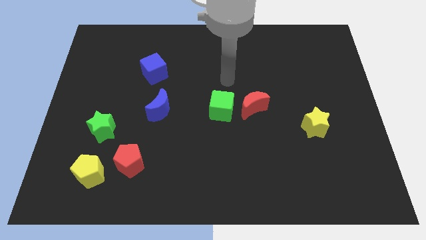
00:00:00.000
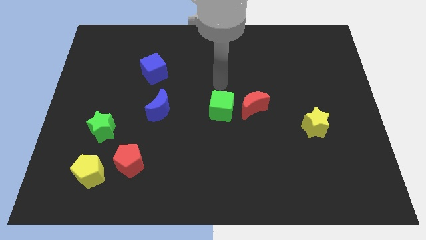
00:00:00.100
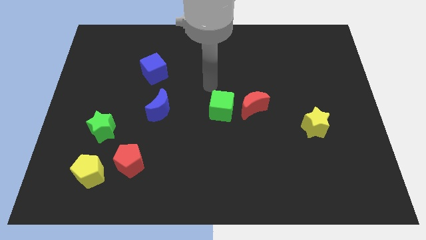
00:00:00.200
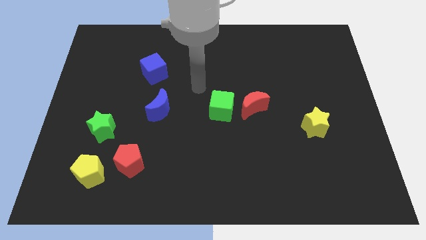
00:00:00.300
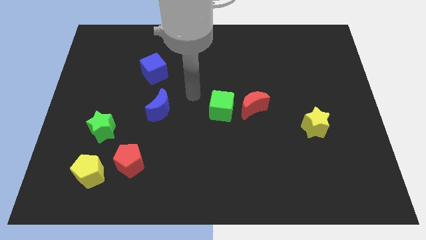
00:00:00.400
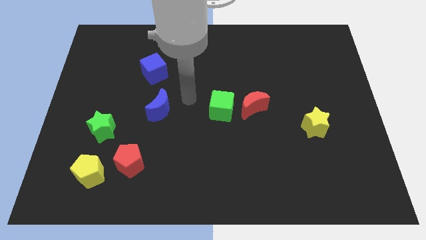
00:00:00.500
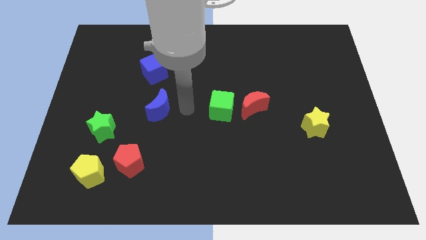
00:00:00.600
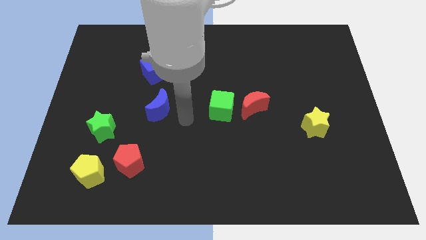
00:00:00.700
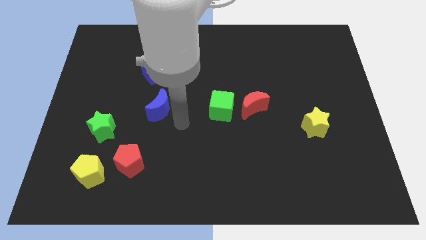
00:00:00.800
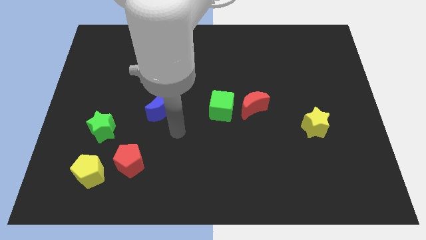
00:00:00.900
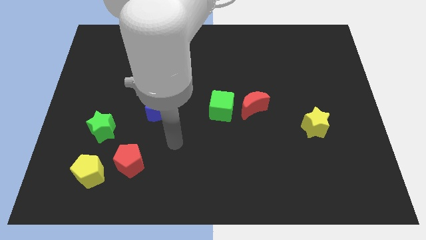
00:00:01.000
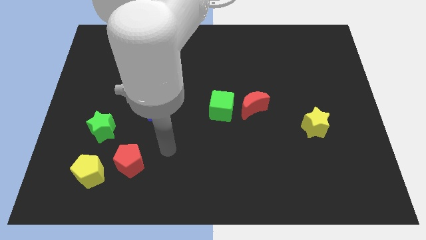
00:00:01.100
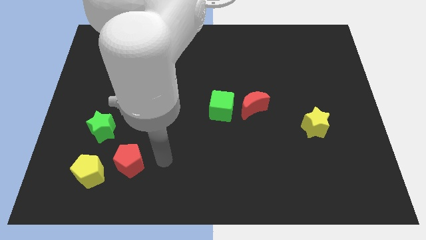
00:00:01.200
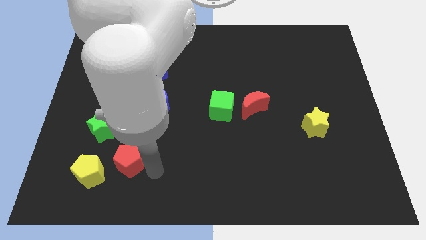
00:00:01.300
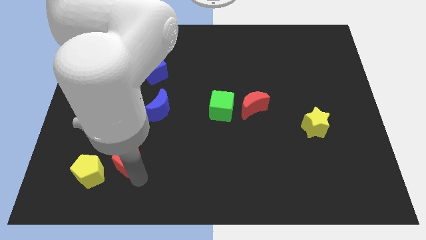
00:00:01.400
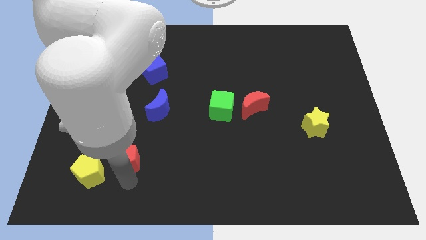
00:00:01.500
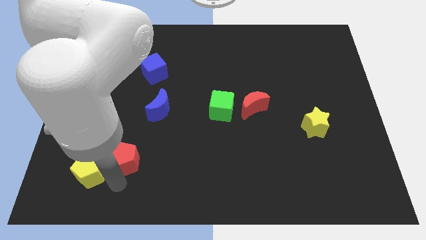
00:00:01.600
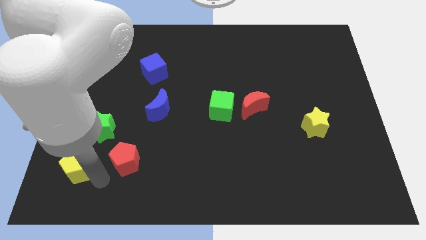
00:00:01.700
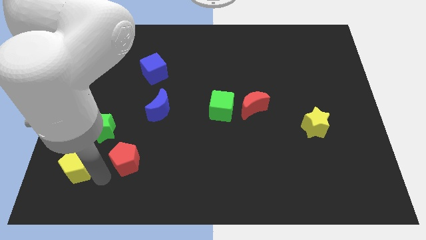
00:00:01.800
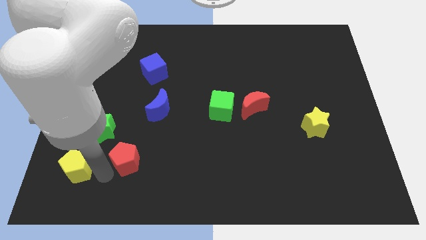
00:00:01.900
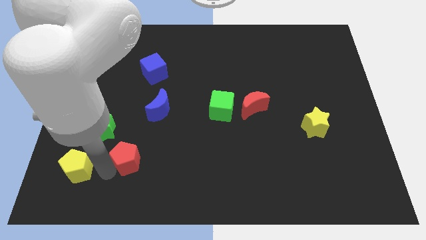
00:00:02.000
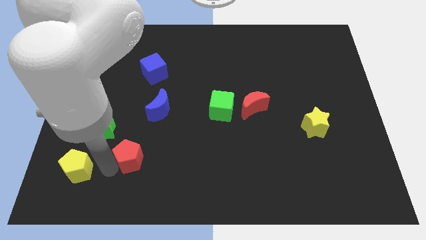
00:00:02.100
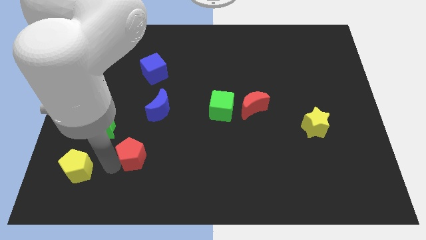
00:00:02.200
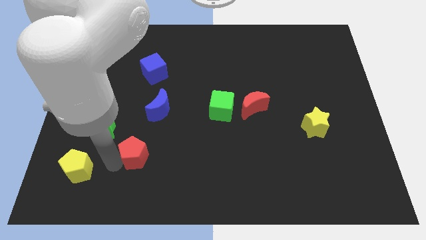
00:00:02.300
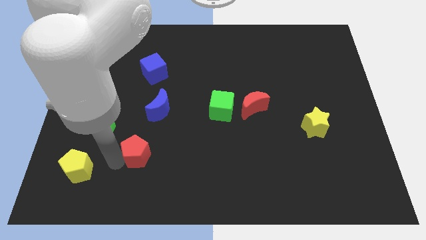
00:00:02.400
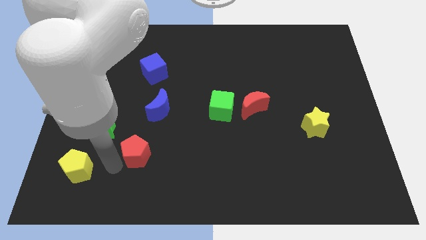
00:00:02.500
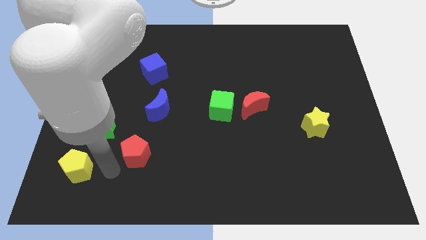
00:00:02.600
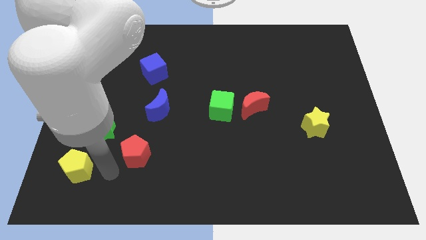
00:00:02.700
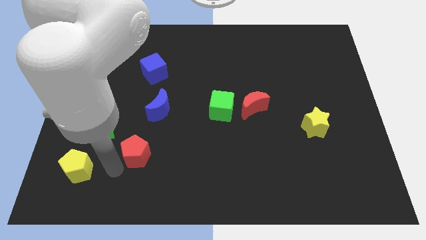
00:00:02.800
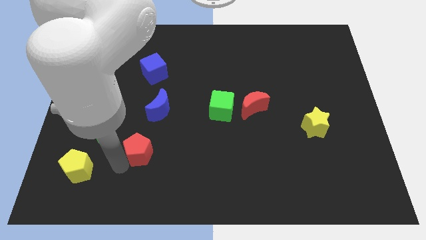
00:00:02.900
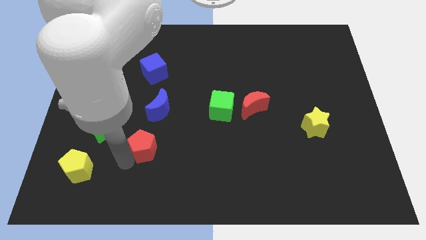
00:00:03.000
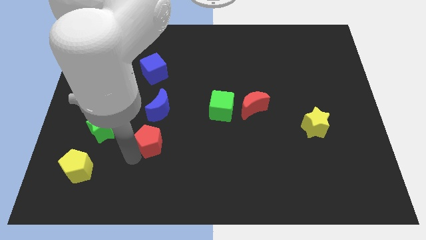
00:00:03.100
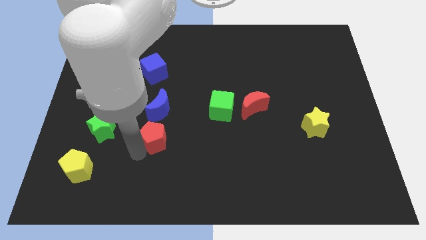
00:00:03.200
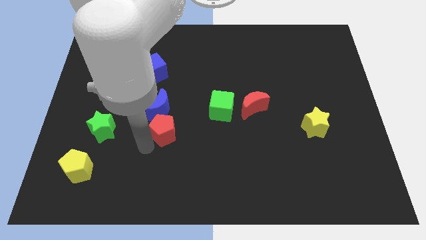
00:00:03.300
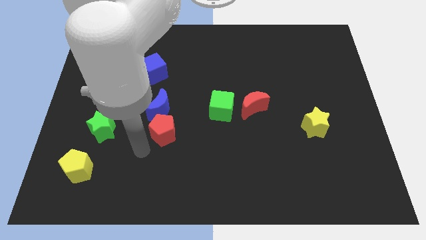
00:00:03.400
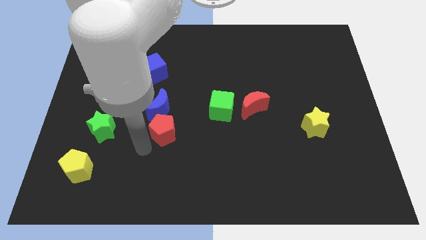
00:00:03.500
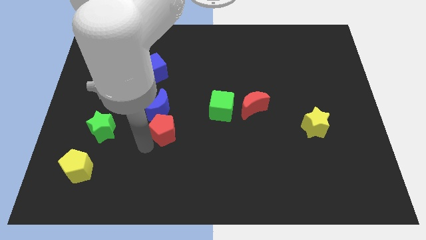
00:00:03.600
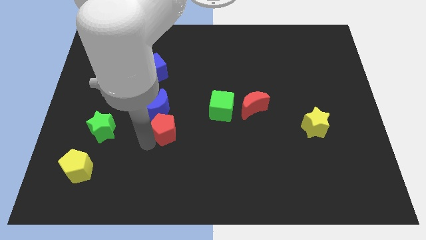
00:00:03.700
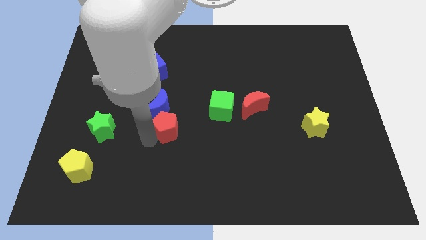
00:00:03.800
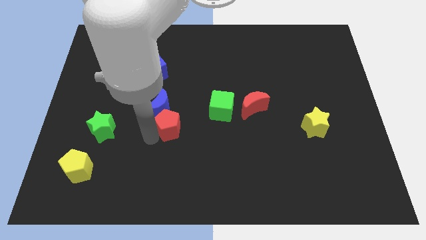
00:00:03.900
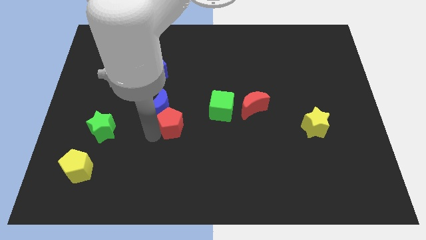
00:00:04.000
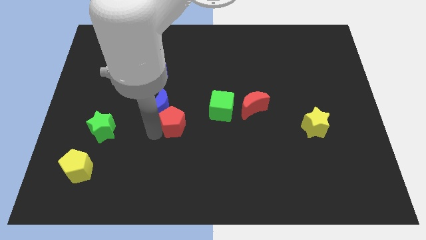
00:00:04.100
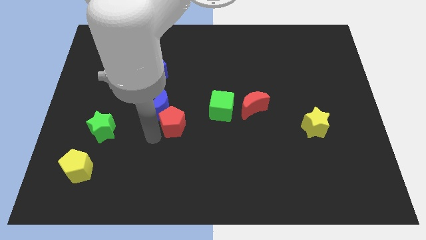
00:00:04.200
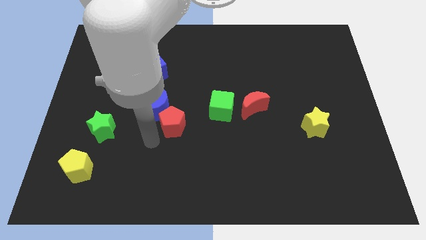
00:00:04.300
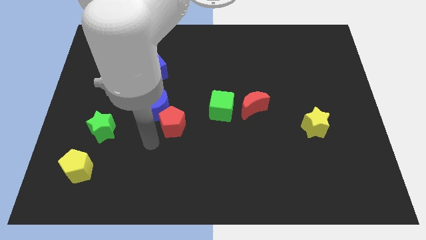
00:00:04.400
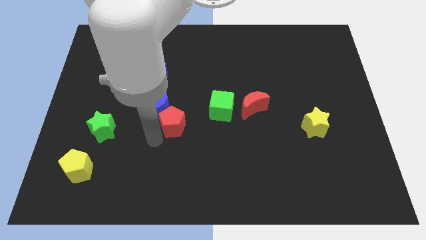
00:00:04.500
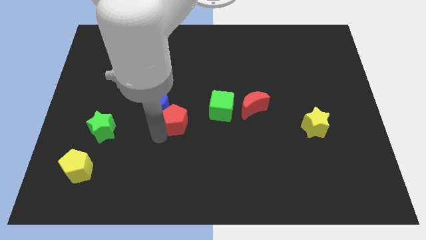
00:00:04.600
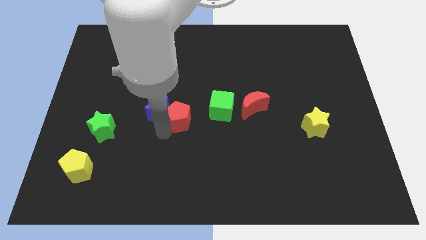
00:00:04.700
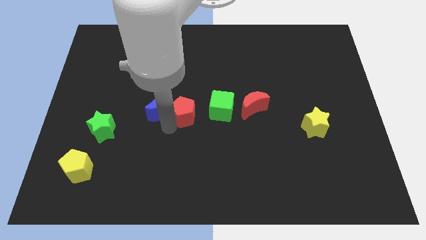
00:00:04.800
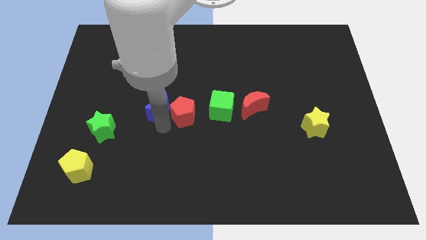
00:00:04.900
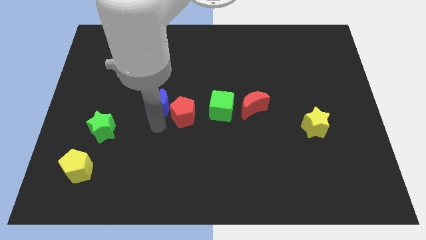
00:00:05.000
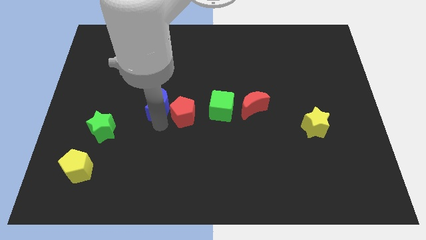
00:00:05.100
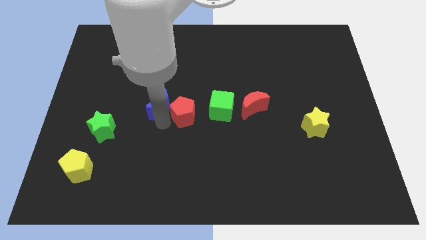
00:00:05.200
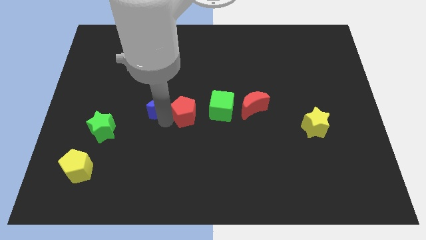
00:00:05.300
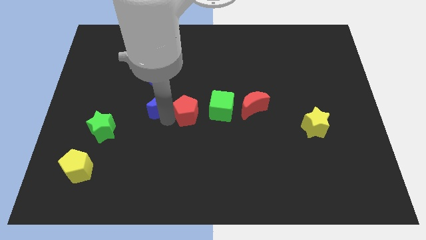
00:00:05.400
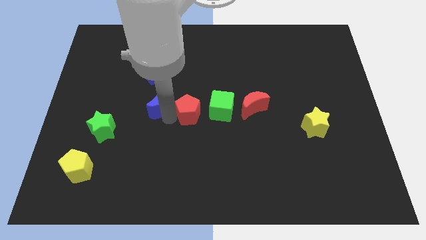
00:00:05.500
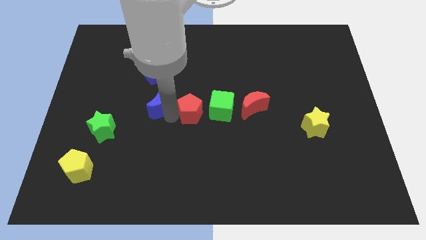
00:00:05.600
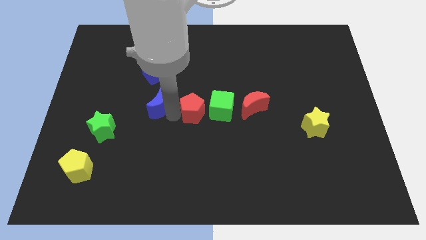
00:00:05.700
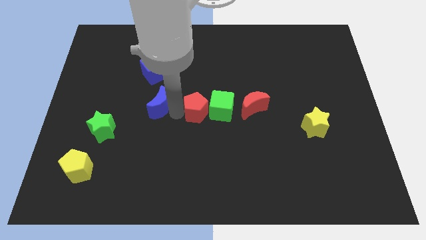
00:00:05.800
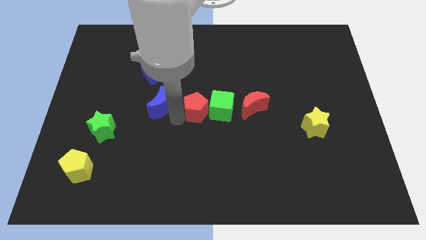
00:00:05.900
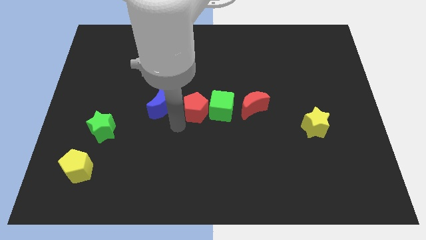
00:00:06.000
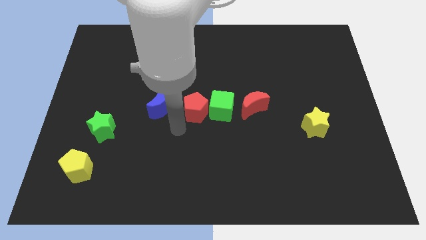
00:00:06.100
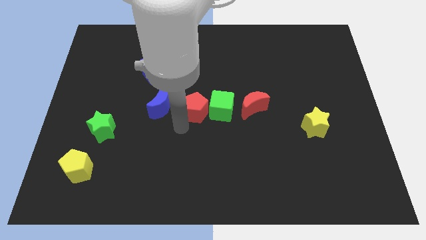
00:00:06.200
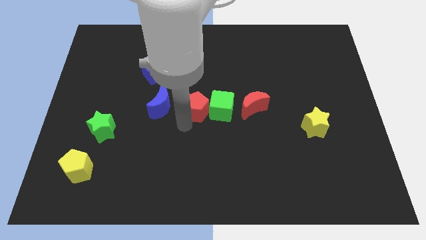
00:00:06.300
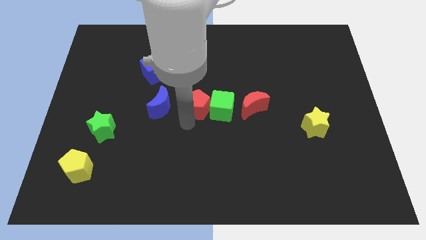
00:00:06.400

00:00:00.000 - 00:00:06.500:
move the red pentagon up and to the right

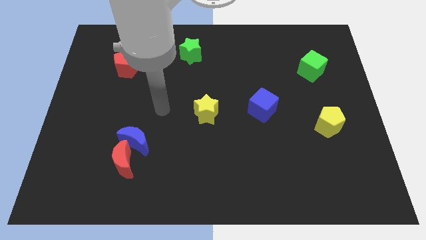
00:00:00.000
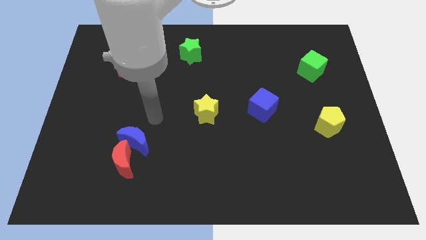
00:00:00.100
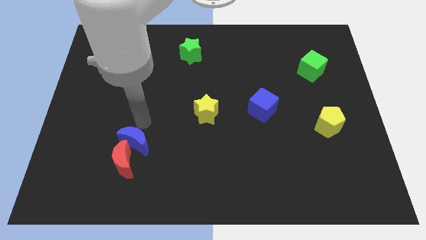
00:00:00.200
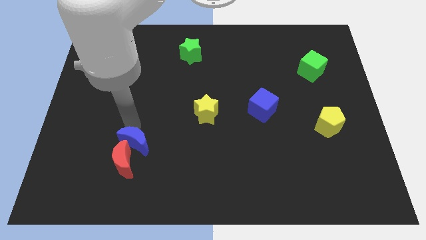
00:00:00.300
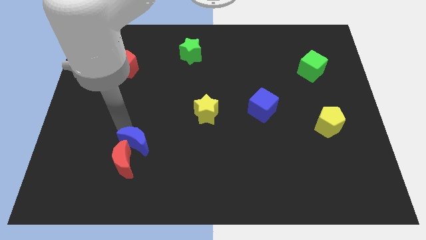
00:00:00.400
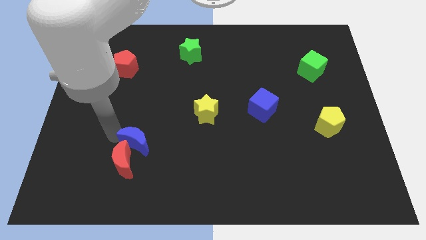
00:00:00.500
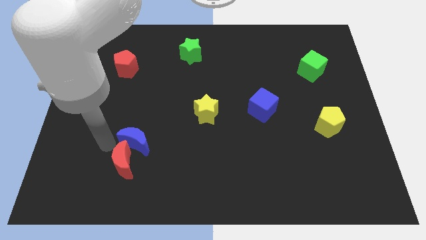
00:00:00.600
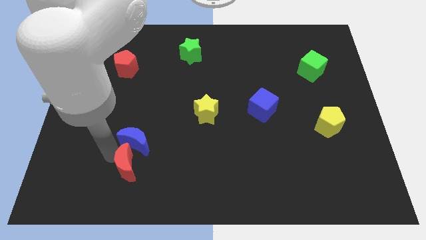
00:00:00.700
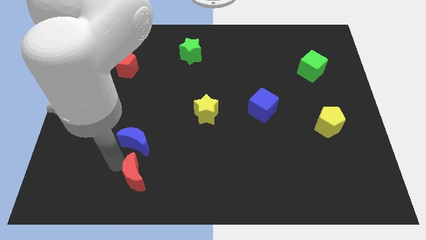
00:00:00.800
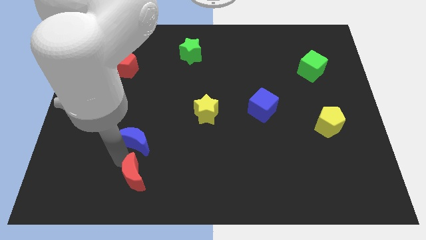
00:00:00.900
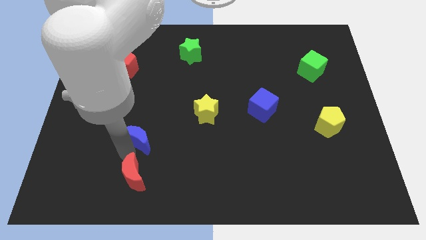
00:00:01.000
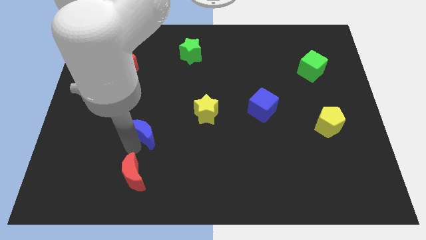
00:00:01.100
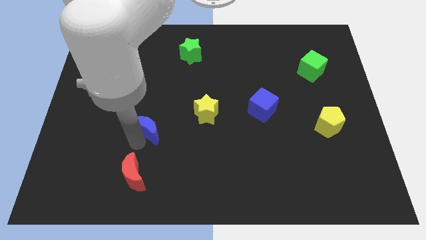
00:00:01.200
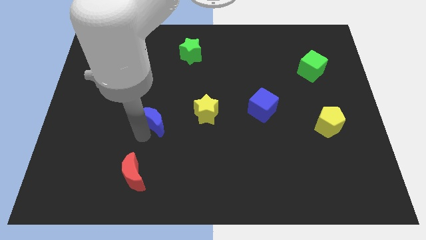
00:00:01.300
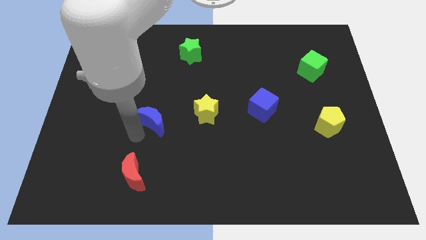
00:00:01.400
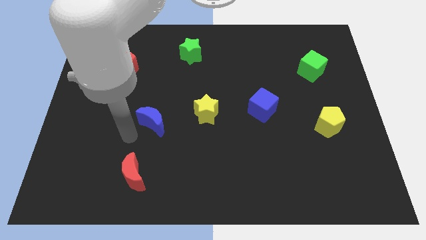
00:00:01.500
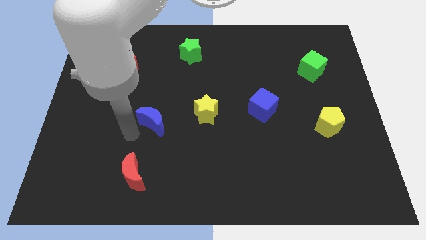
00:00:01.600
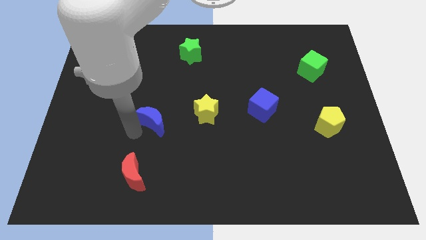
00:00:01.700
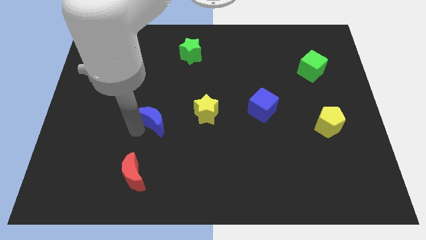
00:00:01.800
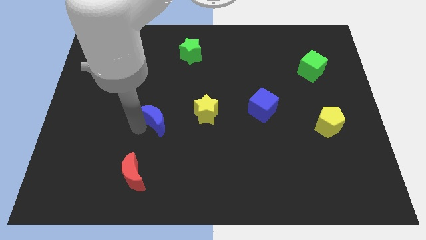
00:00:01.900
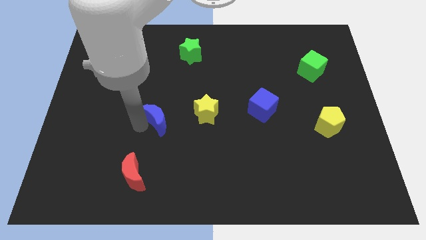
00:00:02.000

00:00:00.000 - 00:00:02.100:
slide the blue moon a little bit up and right diagonally
